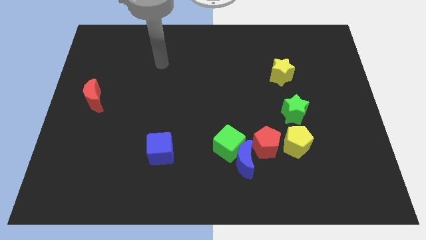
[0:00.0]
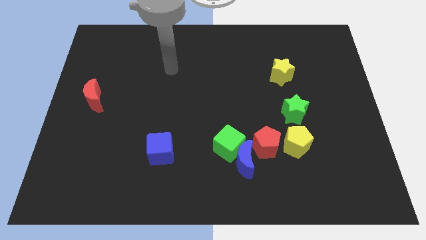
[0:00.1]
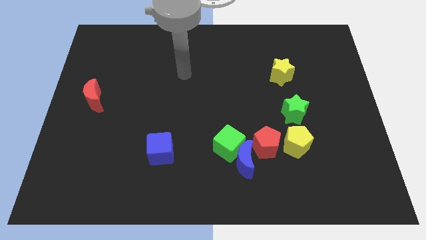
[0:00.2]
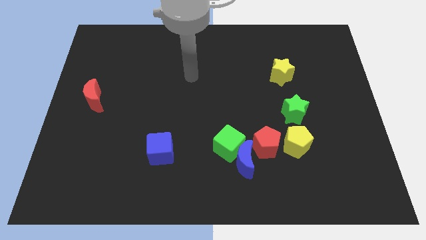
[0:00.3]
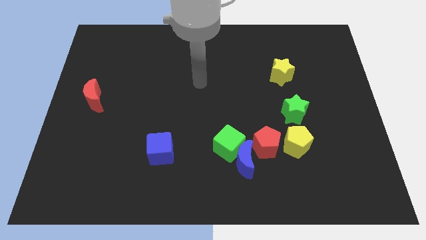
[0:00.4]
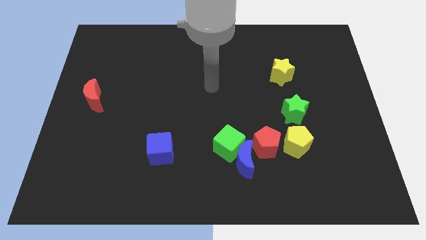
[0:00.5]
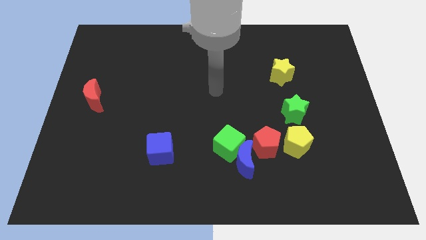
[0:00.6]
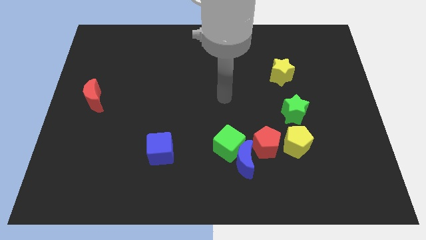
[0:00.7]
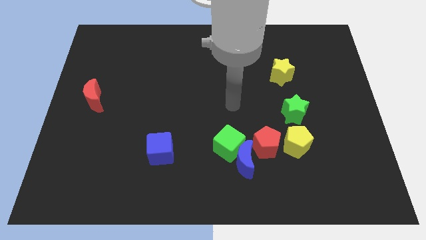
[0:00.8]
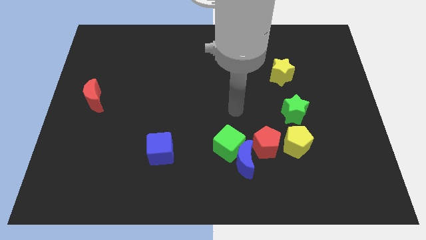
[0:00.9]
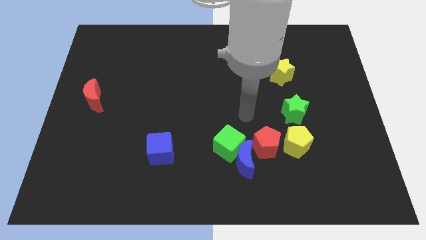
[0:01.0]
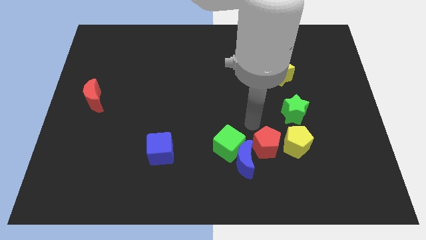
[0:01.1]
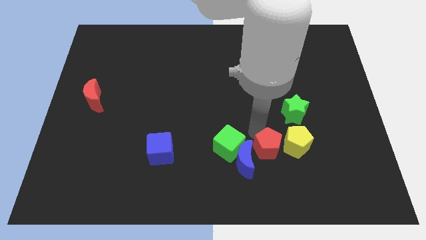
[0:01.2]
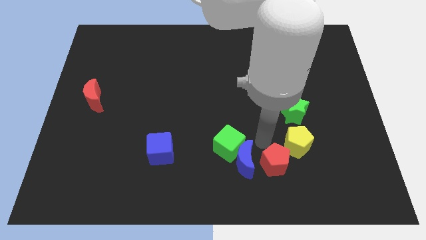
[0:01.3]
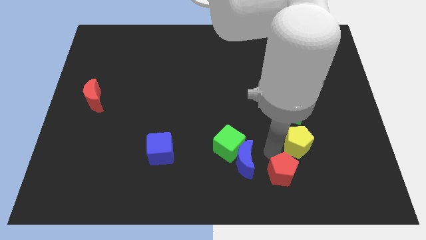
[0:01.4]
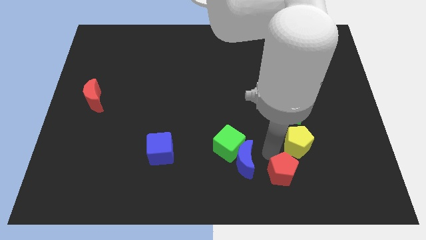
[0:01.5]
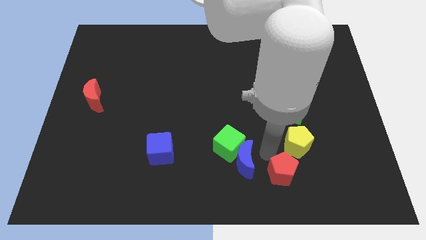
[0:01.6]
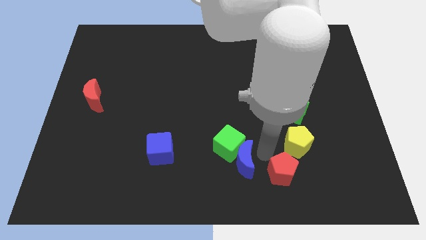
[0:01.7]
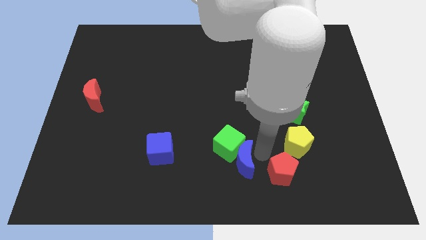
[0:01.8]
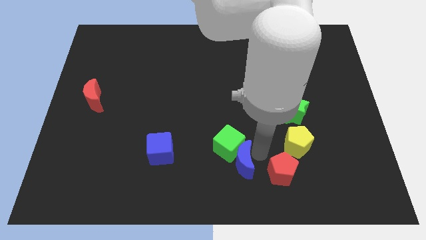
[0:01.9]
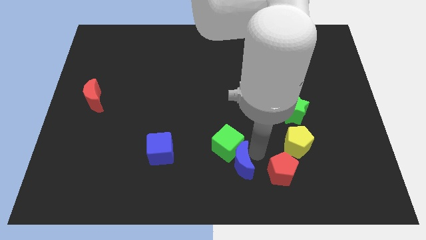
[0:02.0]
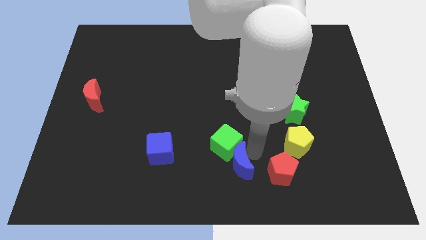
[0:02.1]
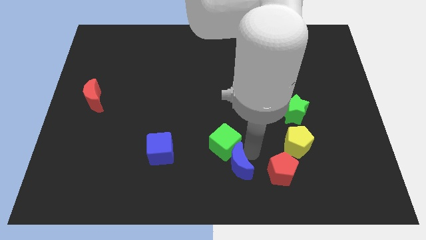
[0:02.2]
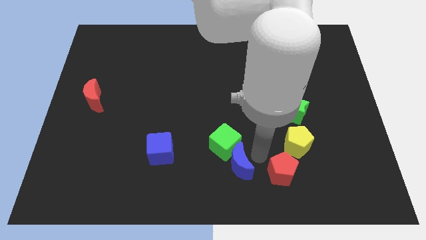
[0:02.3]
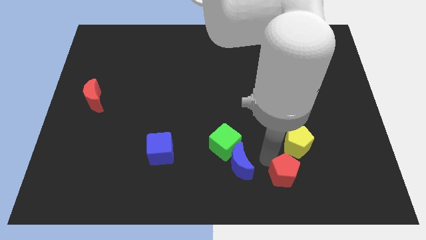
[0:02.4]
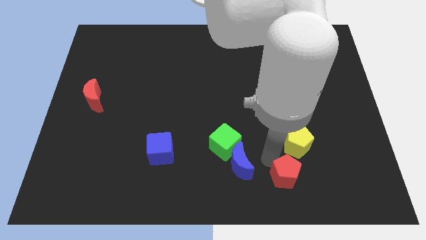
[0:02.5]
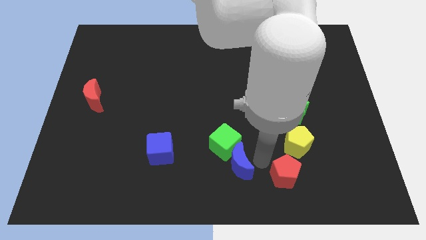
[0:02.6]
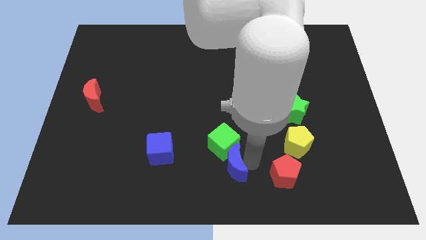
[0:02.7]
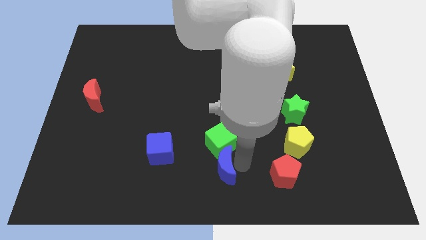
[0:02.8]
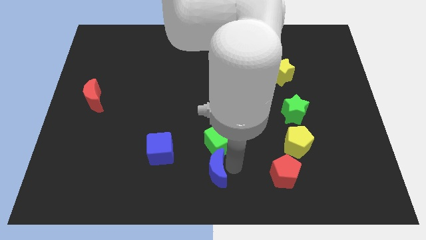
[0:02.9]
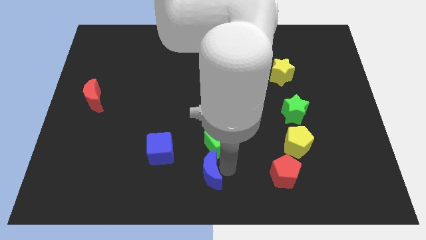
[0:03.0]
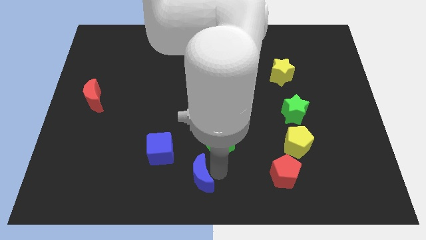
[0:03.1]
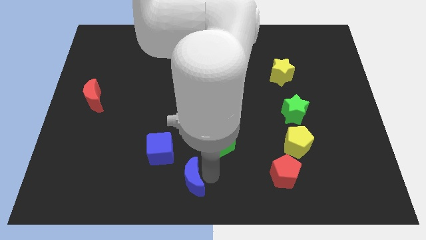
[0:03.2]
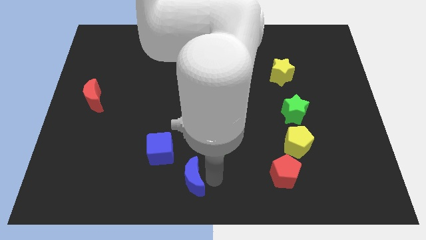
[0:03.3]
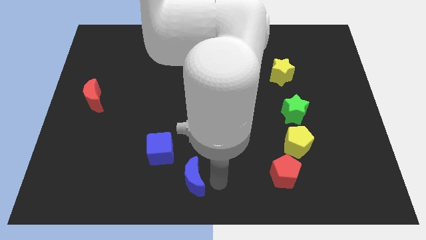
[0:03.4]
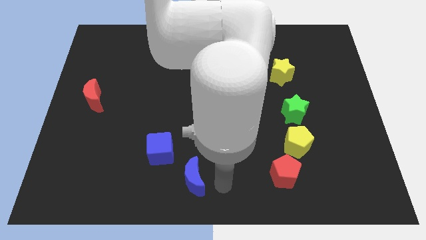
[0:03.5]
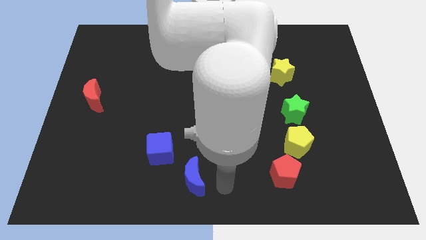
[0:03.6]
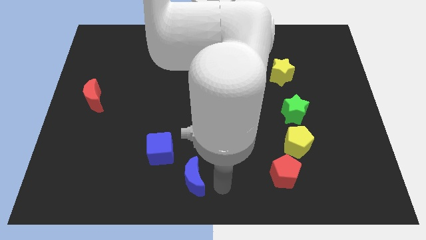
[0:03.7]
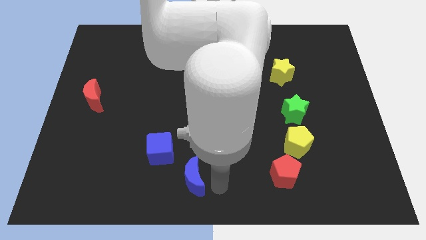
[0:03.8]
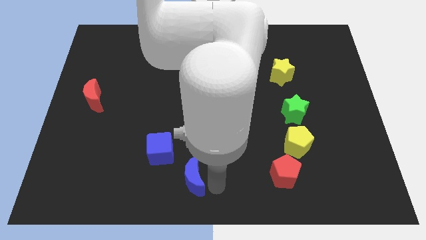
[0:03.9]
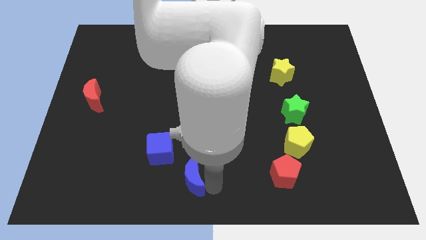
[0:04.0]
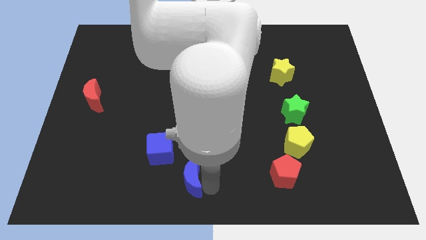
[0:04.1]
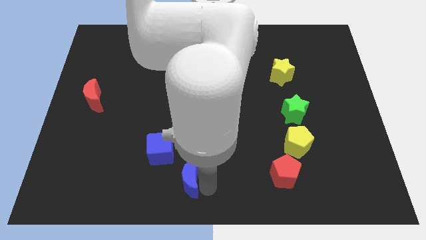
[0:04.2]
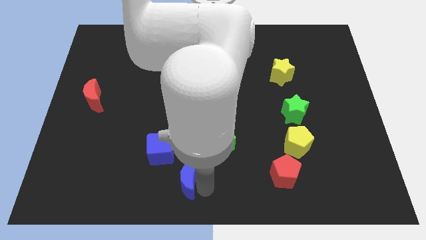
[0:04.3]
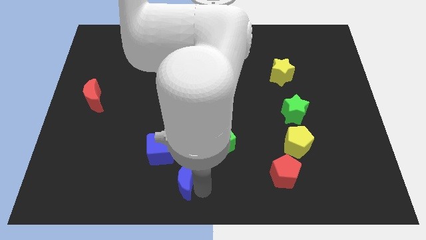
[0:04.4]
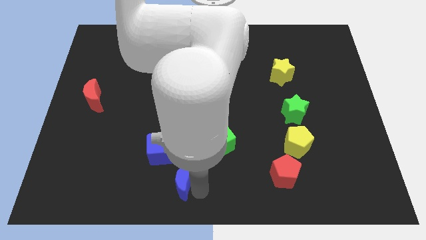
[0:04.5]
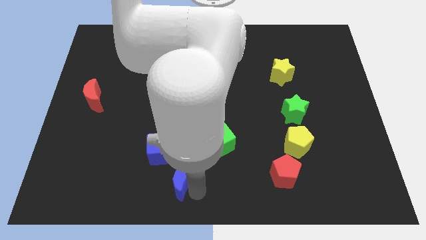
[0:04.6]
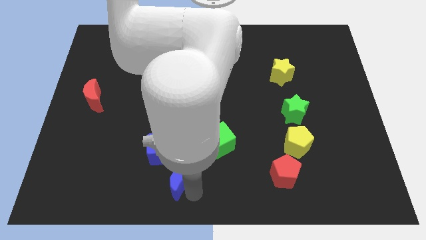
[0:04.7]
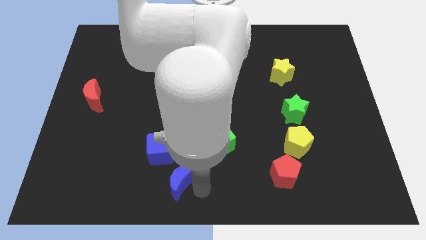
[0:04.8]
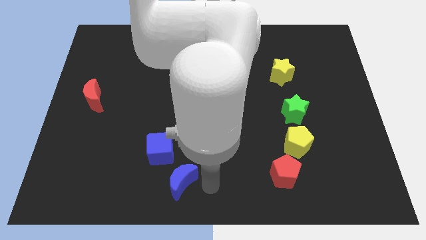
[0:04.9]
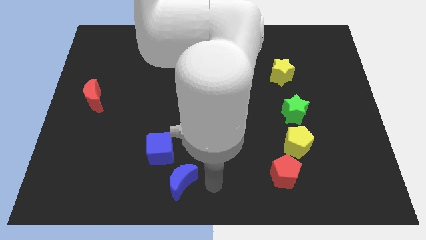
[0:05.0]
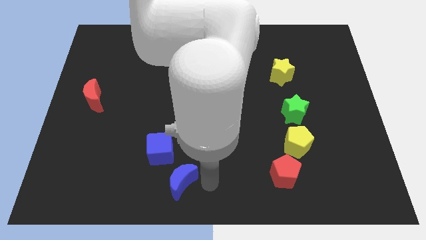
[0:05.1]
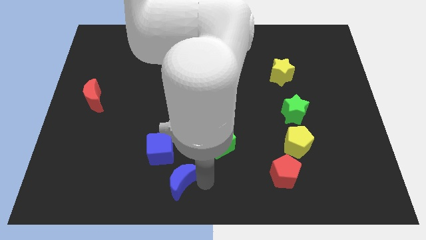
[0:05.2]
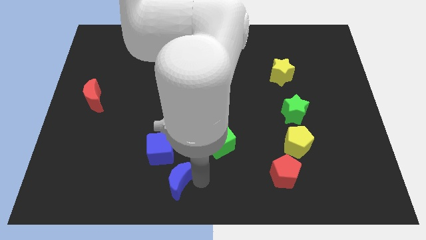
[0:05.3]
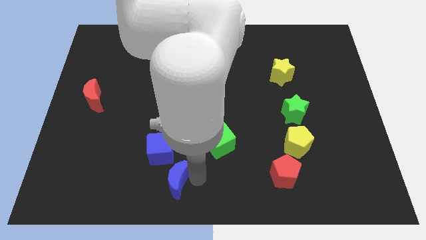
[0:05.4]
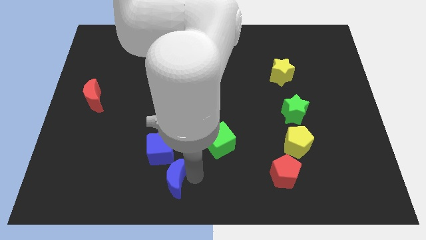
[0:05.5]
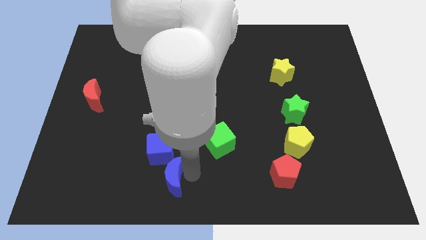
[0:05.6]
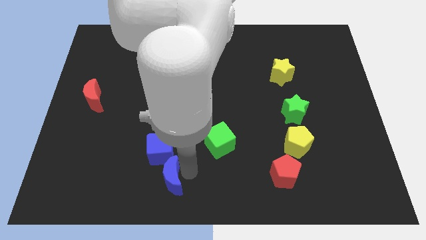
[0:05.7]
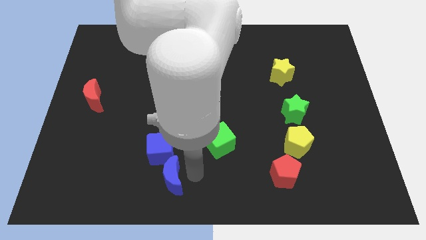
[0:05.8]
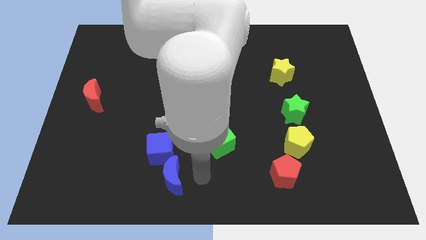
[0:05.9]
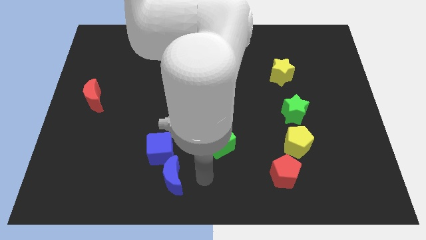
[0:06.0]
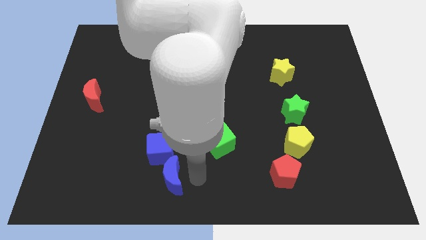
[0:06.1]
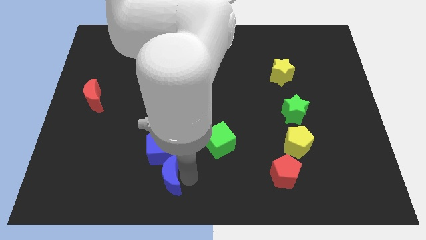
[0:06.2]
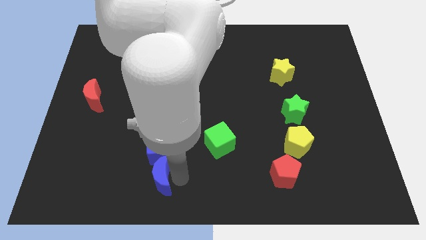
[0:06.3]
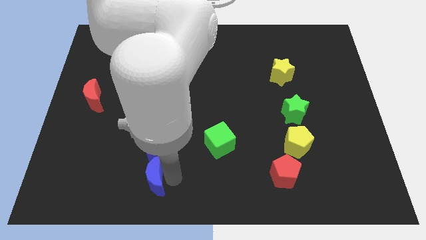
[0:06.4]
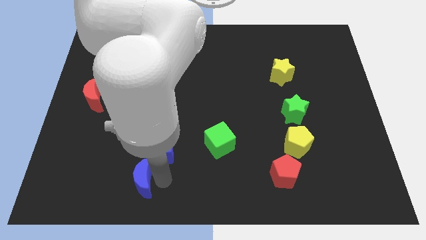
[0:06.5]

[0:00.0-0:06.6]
move the blue moon left

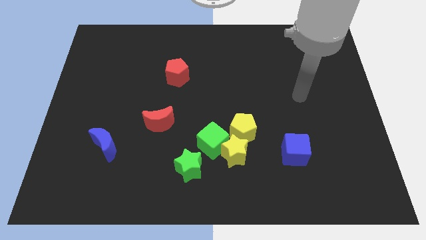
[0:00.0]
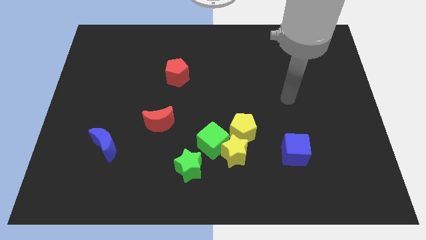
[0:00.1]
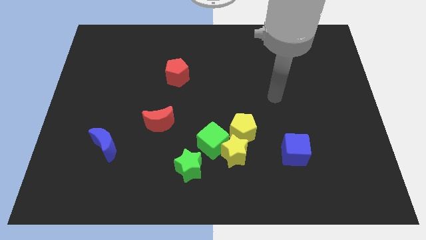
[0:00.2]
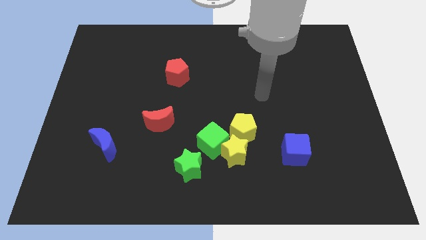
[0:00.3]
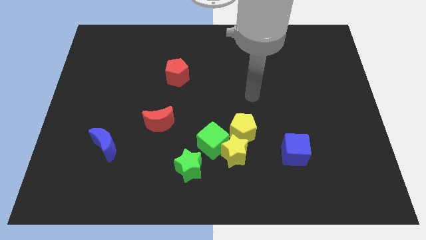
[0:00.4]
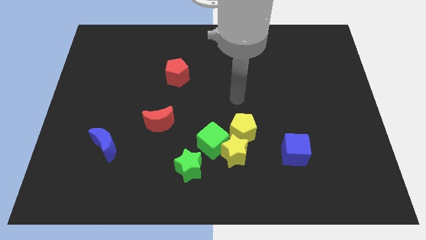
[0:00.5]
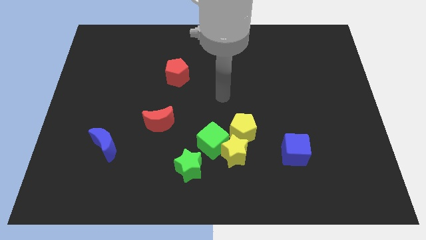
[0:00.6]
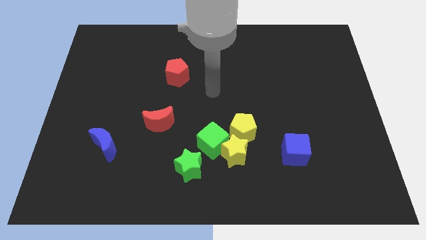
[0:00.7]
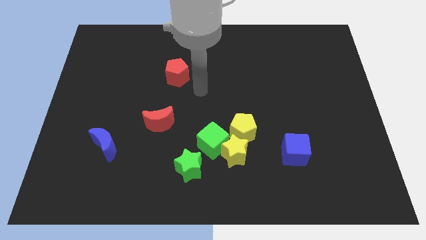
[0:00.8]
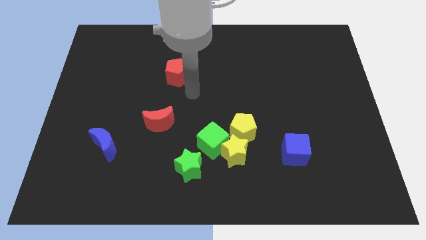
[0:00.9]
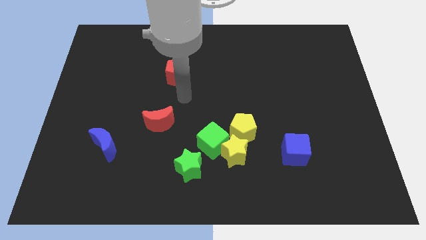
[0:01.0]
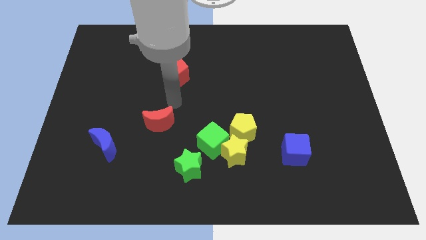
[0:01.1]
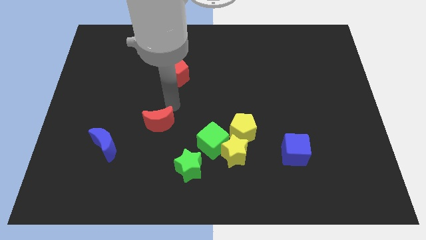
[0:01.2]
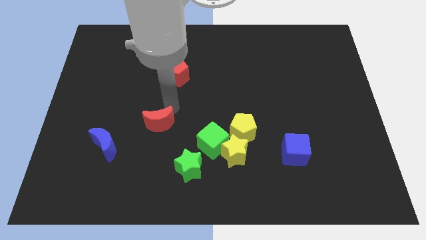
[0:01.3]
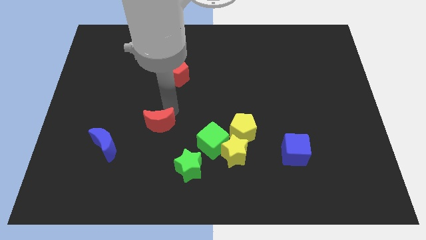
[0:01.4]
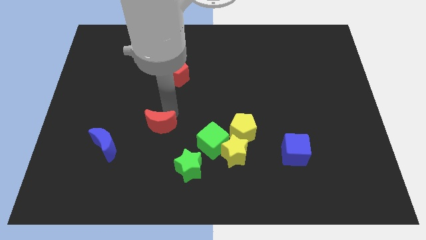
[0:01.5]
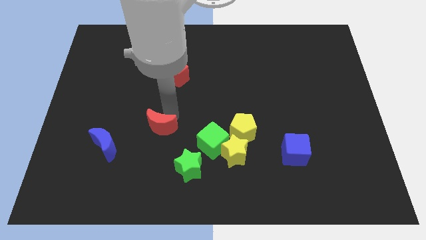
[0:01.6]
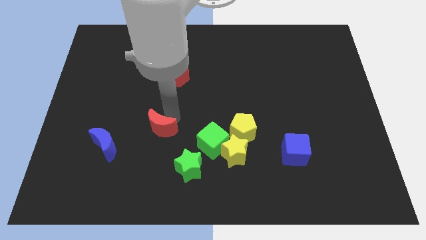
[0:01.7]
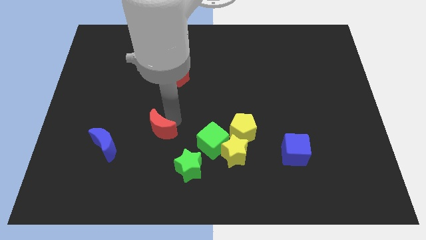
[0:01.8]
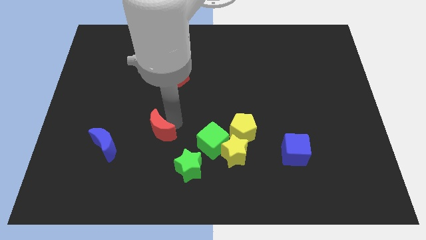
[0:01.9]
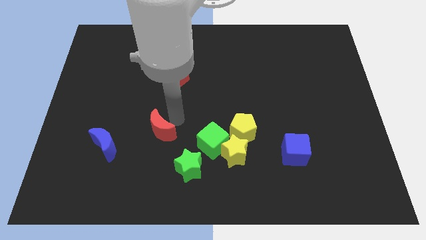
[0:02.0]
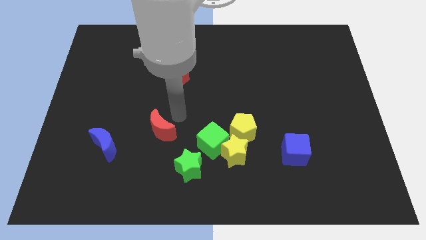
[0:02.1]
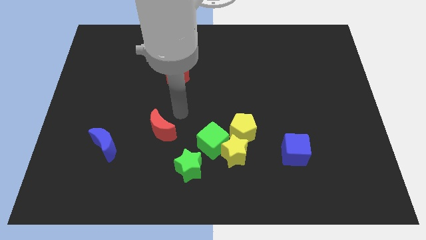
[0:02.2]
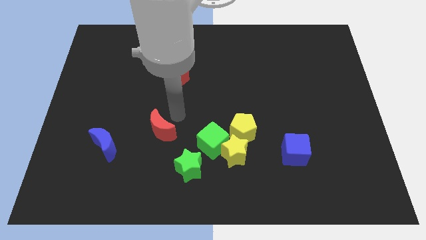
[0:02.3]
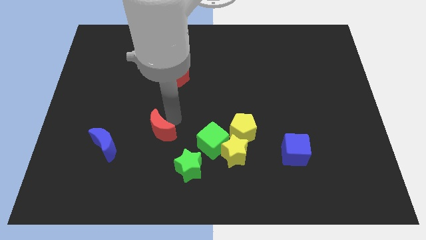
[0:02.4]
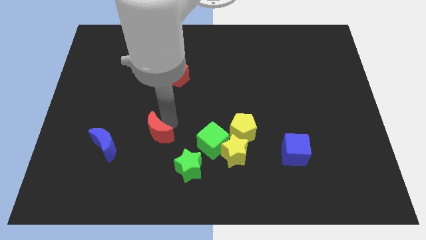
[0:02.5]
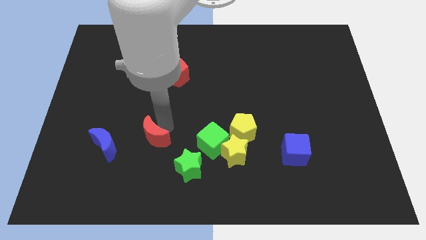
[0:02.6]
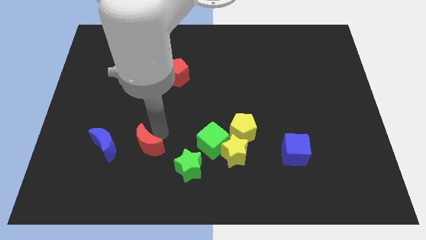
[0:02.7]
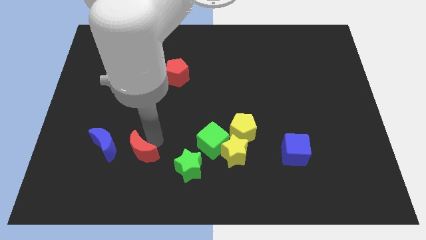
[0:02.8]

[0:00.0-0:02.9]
slightly move the red moon down and to the left diagonally
